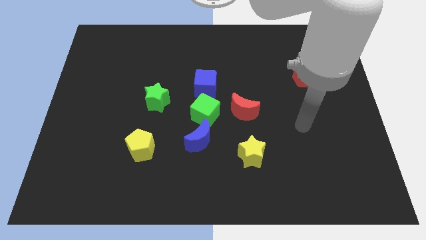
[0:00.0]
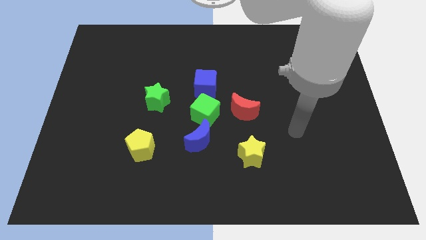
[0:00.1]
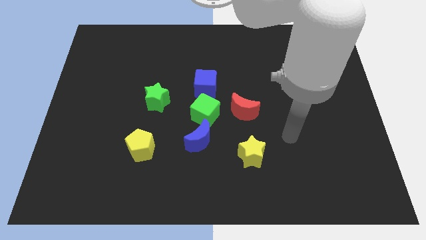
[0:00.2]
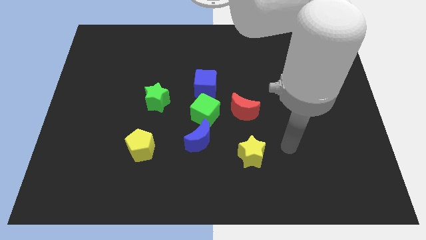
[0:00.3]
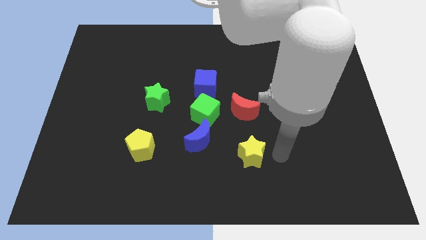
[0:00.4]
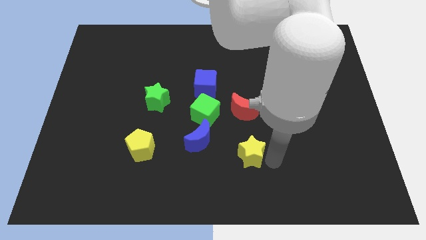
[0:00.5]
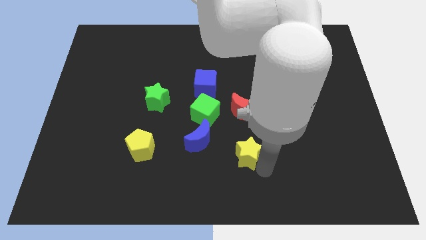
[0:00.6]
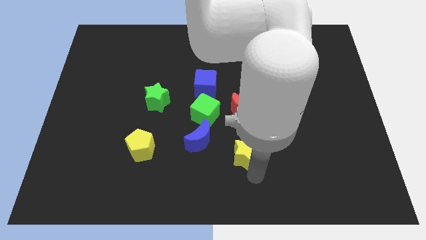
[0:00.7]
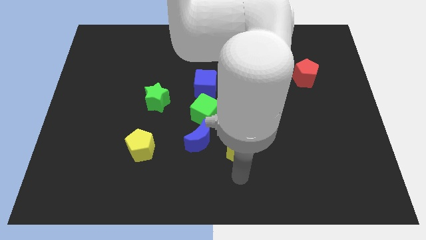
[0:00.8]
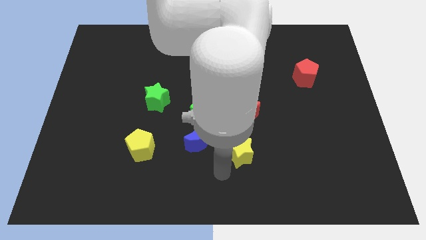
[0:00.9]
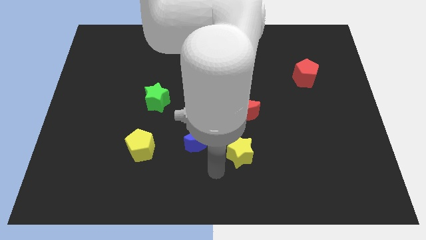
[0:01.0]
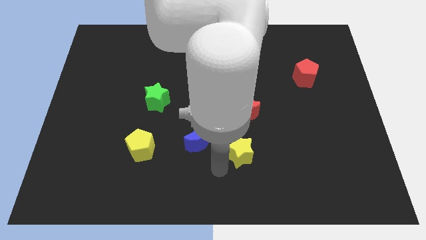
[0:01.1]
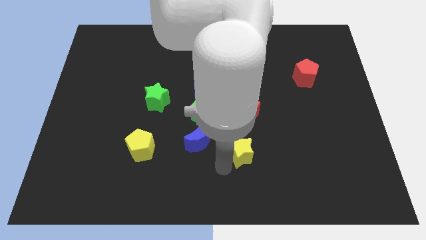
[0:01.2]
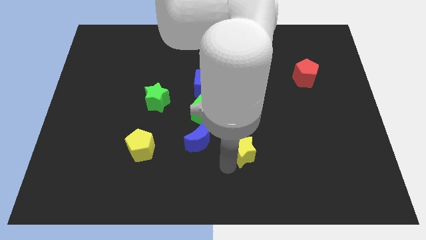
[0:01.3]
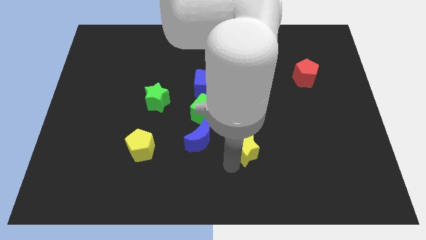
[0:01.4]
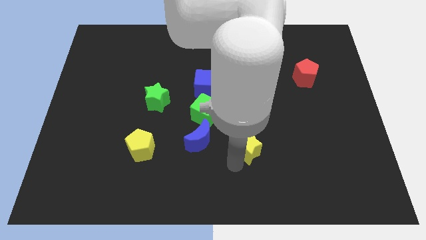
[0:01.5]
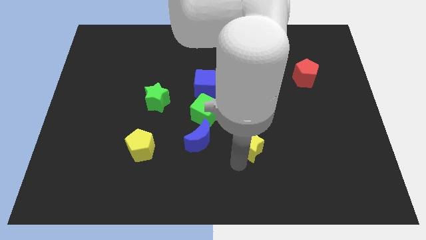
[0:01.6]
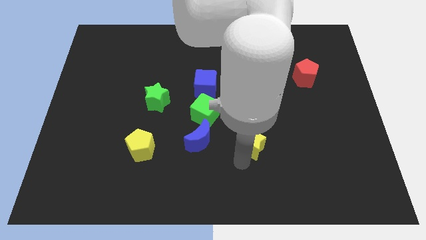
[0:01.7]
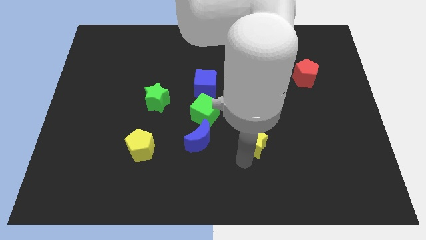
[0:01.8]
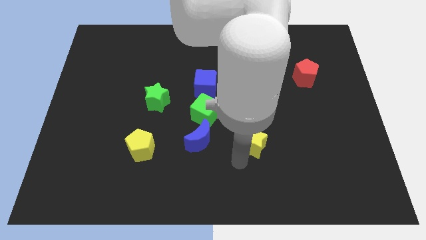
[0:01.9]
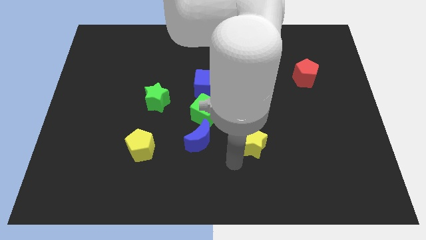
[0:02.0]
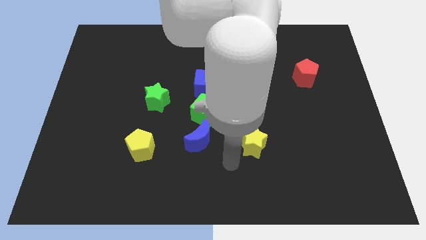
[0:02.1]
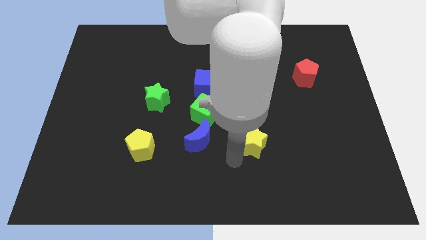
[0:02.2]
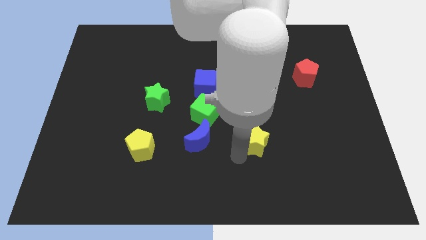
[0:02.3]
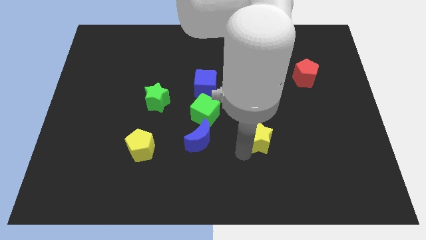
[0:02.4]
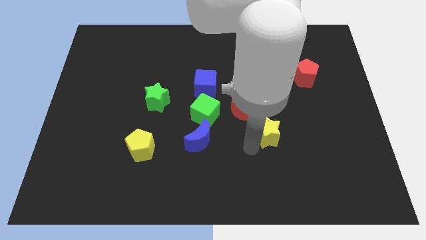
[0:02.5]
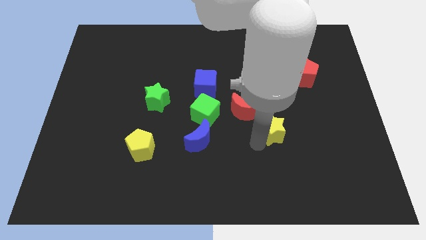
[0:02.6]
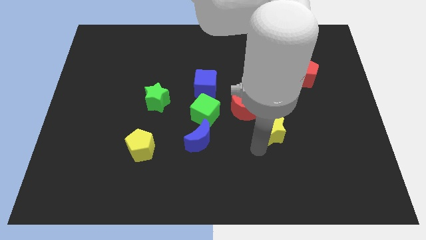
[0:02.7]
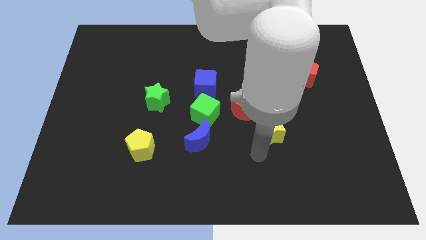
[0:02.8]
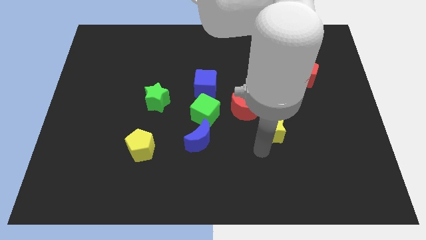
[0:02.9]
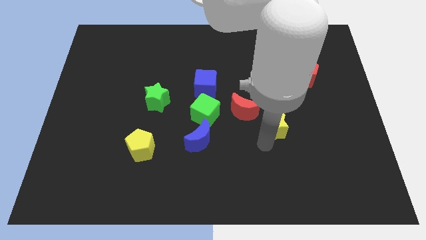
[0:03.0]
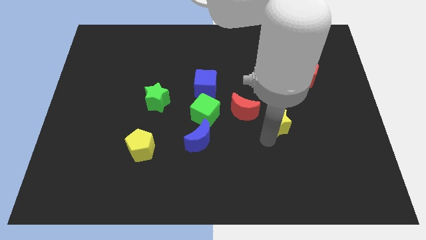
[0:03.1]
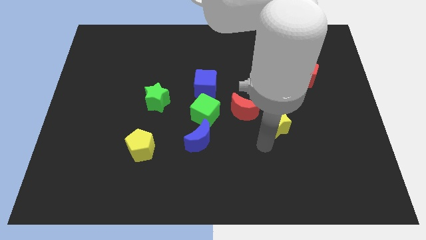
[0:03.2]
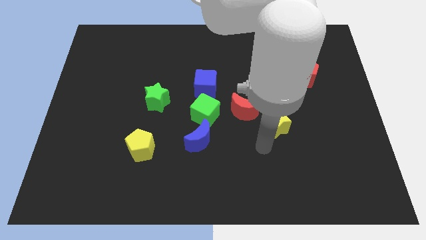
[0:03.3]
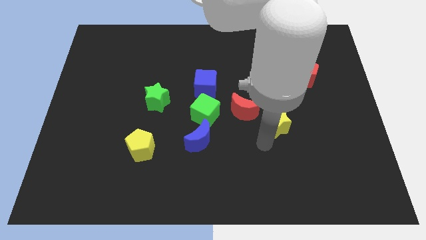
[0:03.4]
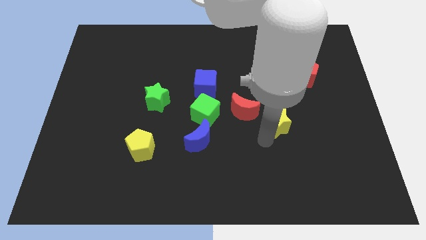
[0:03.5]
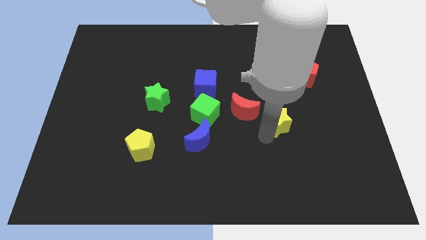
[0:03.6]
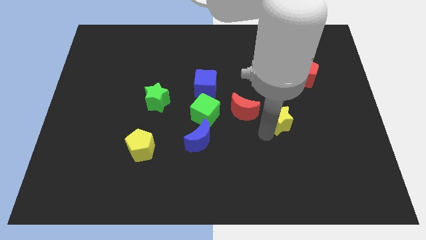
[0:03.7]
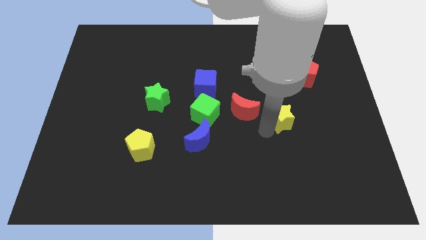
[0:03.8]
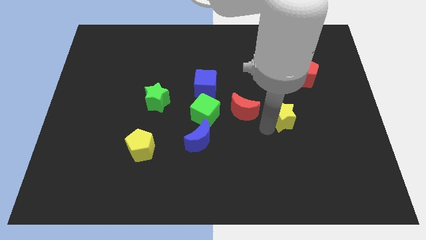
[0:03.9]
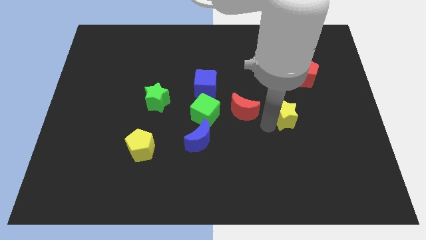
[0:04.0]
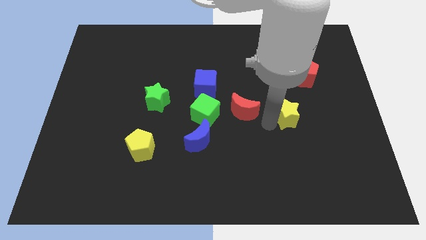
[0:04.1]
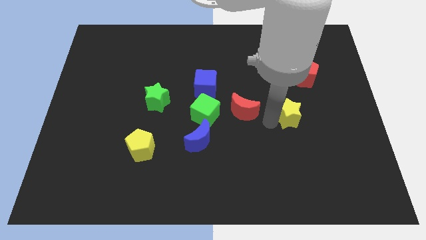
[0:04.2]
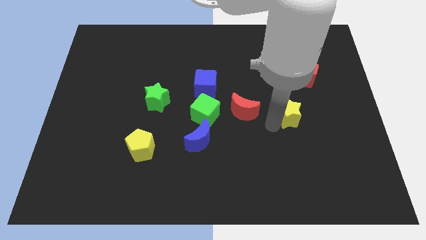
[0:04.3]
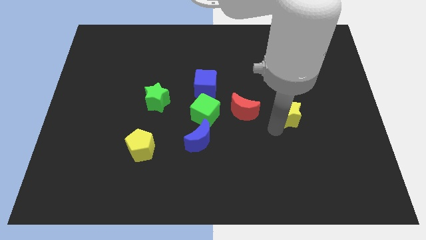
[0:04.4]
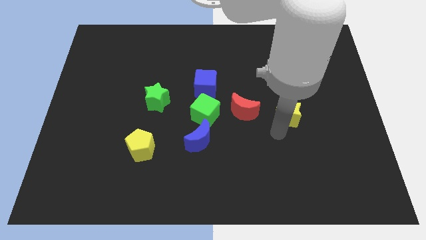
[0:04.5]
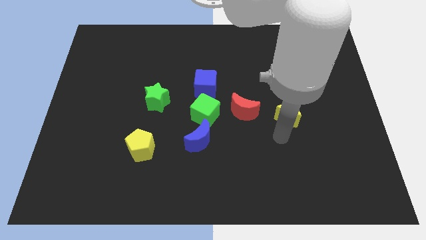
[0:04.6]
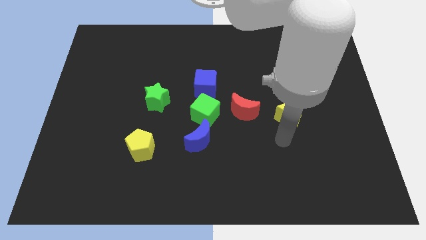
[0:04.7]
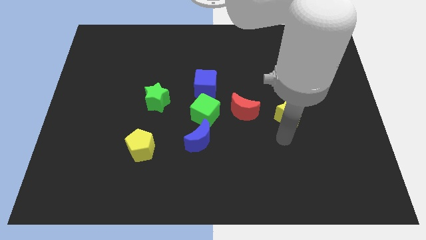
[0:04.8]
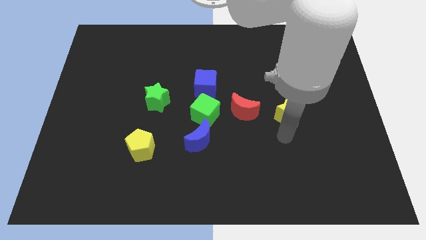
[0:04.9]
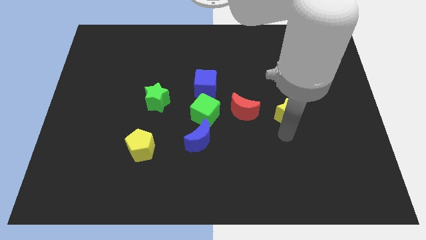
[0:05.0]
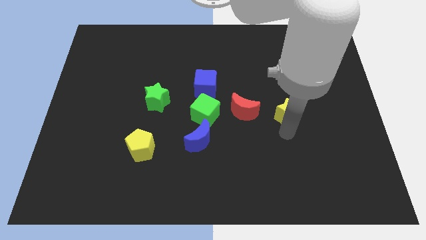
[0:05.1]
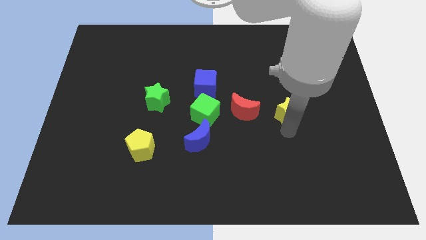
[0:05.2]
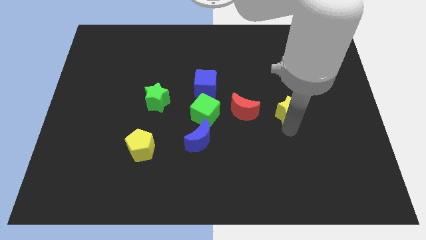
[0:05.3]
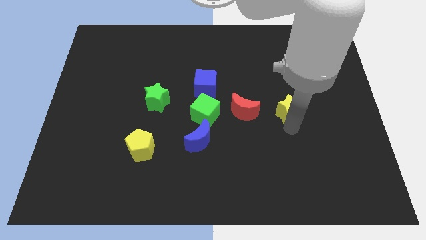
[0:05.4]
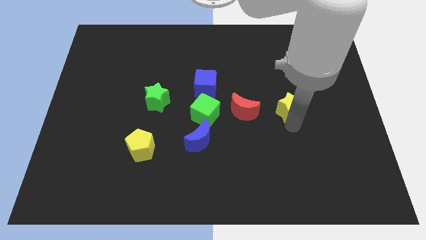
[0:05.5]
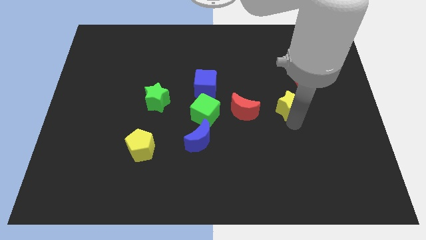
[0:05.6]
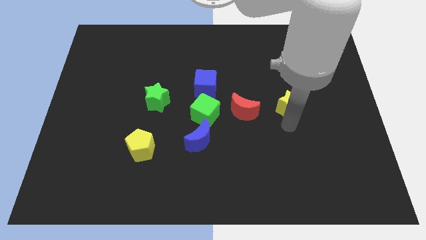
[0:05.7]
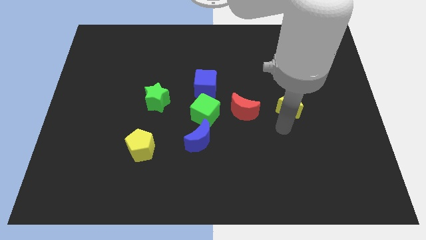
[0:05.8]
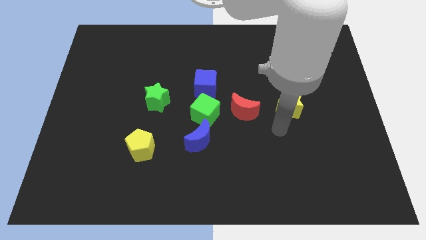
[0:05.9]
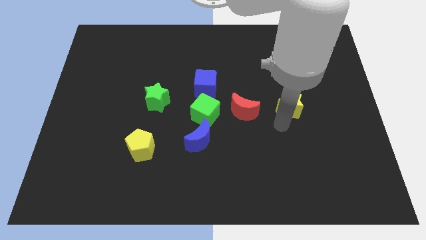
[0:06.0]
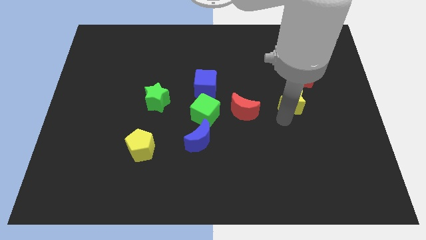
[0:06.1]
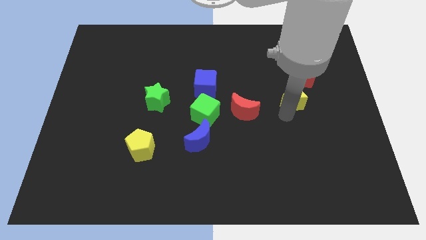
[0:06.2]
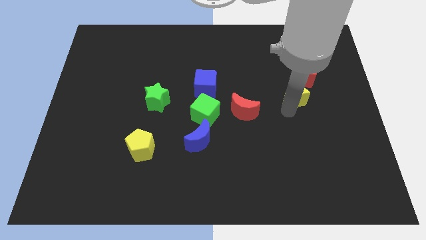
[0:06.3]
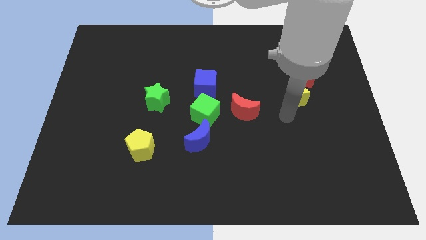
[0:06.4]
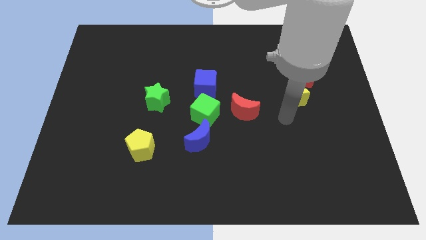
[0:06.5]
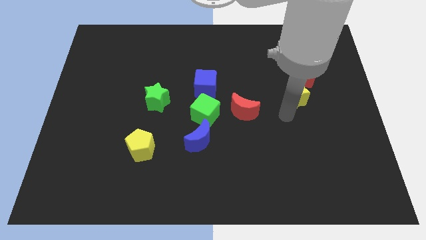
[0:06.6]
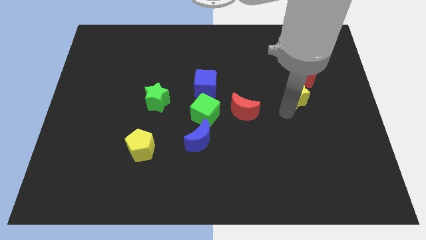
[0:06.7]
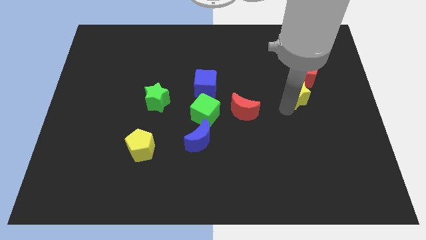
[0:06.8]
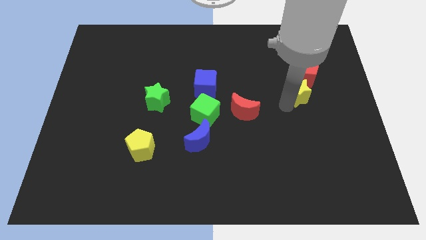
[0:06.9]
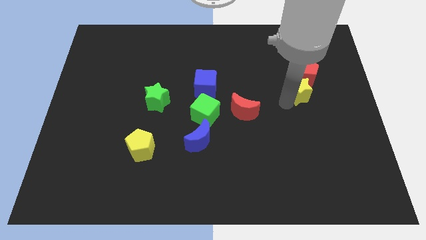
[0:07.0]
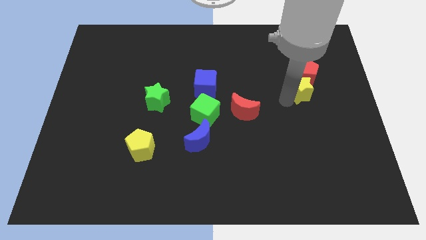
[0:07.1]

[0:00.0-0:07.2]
slide the yellow star next to the red pentagon
